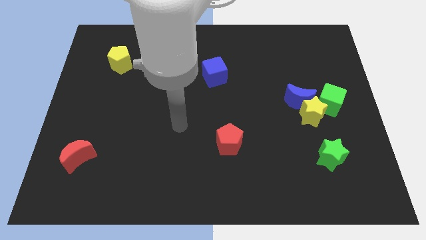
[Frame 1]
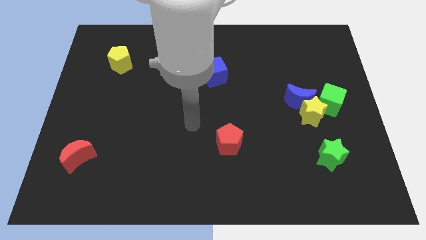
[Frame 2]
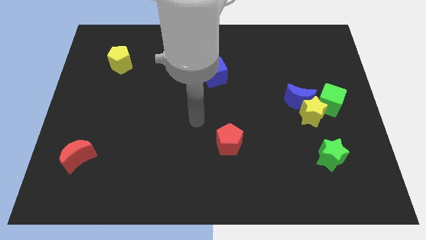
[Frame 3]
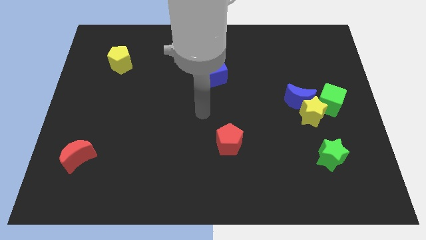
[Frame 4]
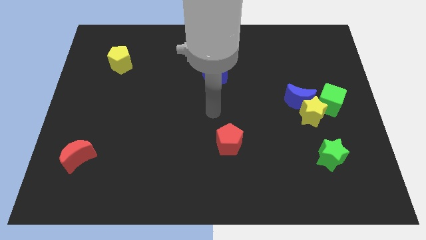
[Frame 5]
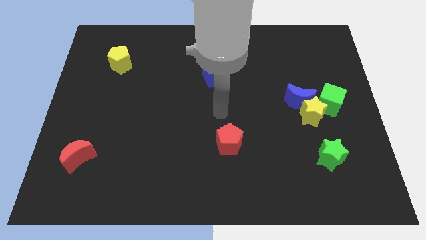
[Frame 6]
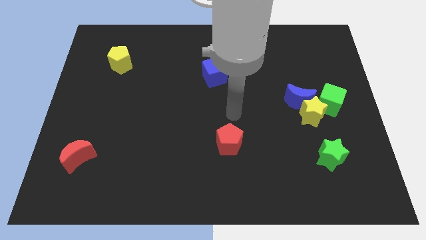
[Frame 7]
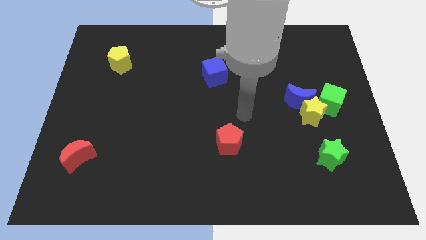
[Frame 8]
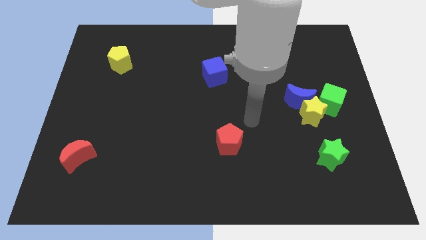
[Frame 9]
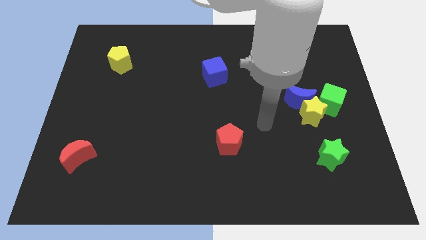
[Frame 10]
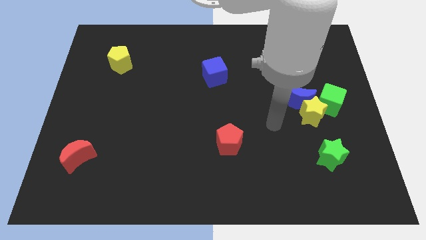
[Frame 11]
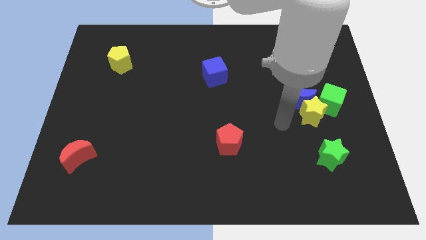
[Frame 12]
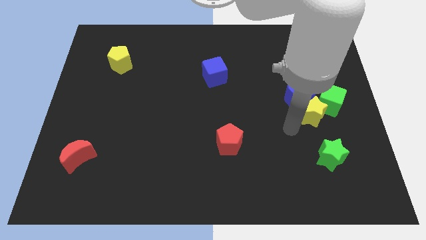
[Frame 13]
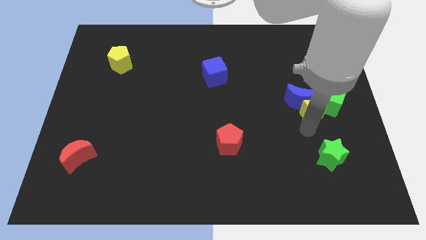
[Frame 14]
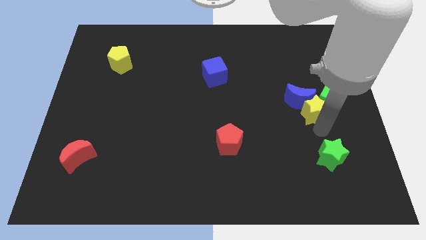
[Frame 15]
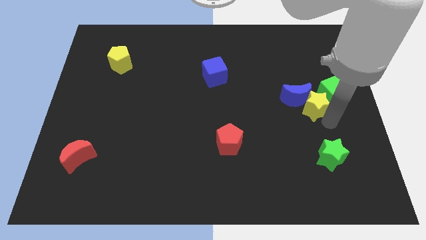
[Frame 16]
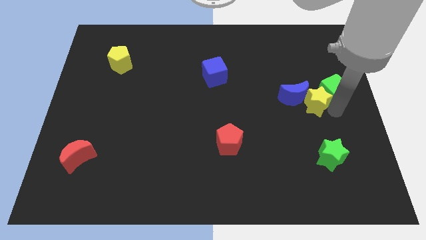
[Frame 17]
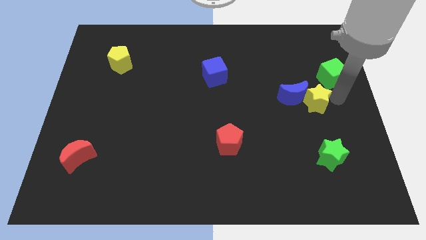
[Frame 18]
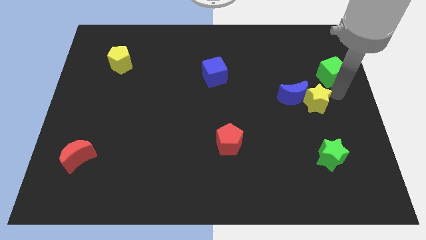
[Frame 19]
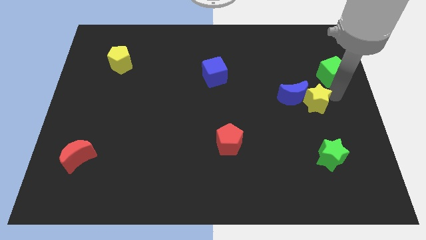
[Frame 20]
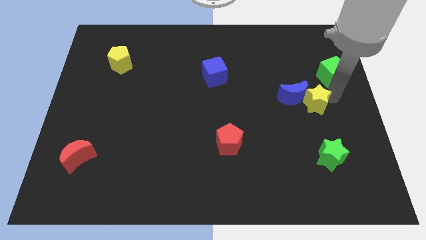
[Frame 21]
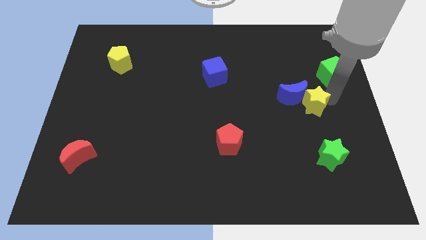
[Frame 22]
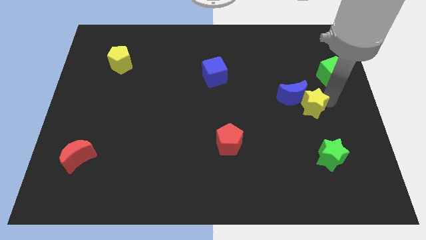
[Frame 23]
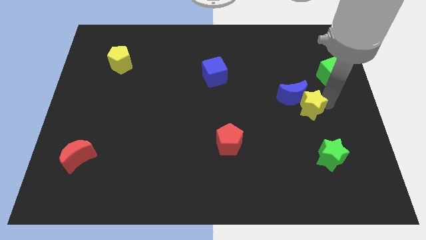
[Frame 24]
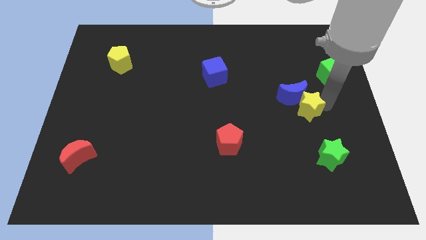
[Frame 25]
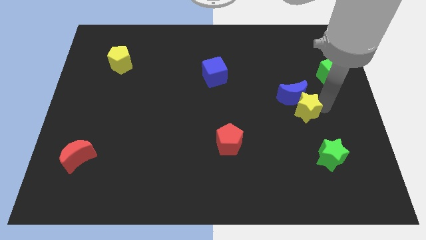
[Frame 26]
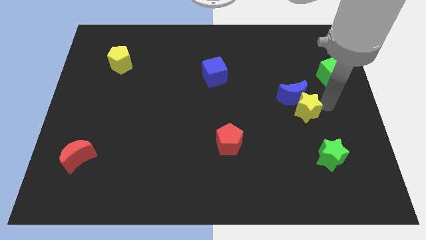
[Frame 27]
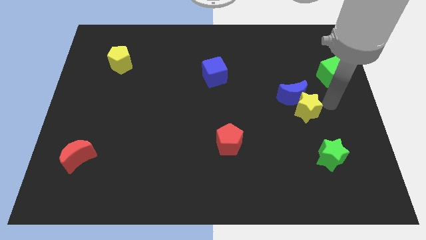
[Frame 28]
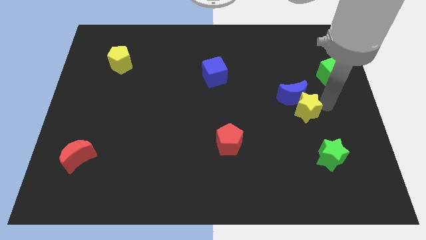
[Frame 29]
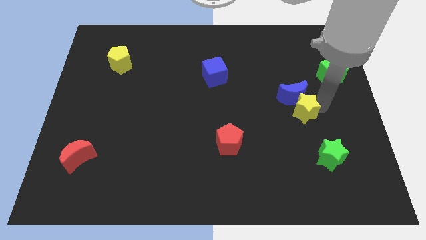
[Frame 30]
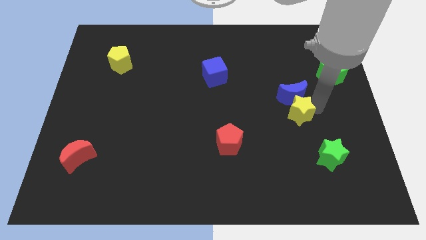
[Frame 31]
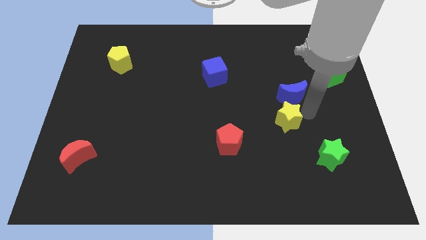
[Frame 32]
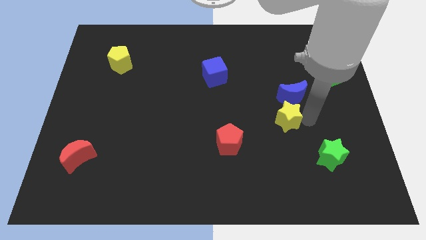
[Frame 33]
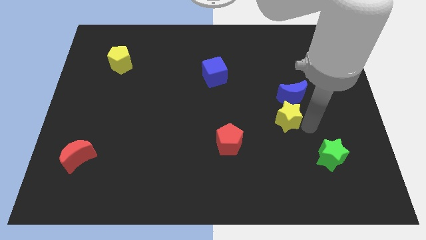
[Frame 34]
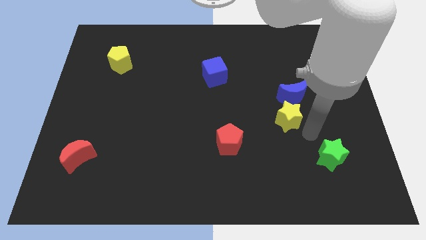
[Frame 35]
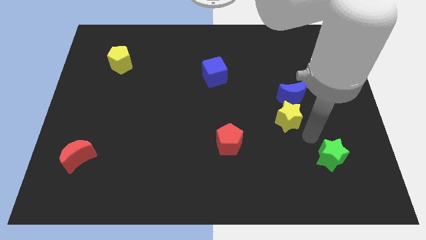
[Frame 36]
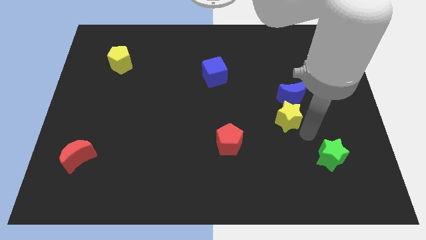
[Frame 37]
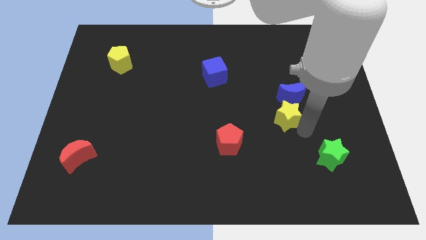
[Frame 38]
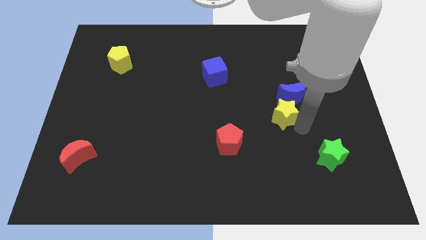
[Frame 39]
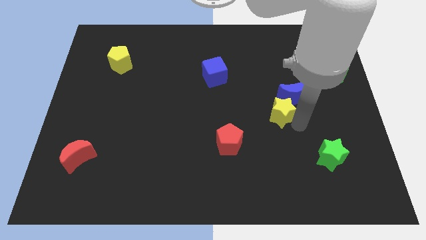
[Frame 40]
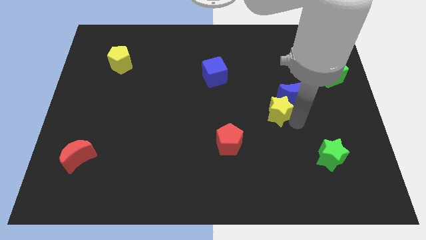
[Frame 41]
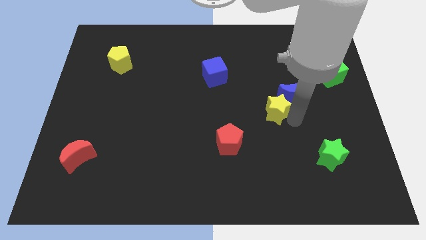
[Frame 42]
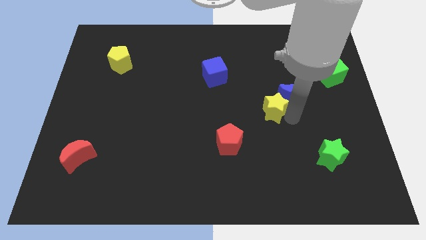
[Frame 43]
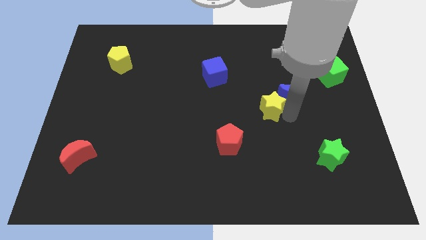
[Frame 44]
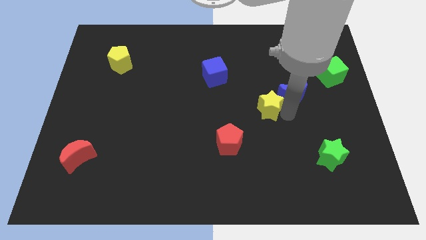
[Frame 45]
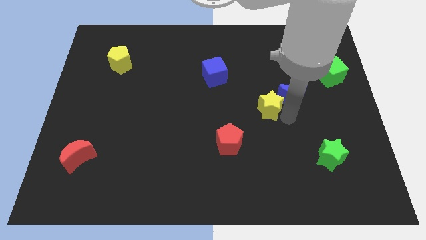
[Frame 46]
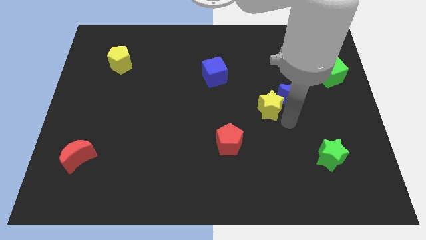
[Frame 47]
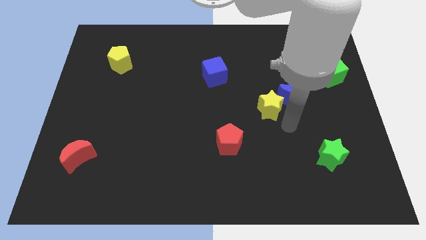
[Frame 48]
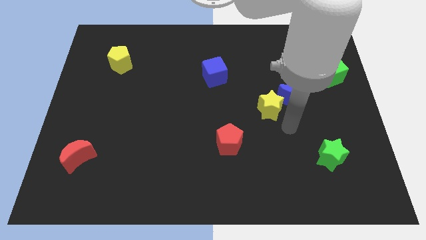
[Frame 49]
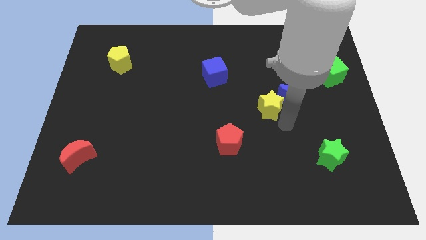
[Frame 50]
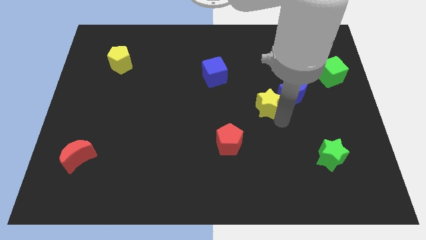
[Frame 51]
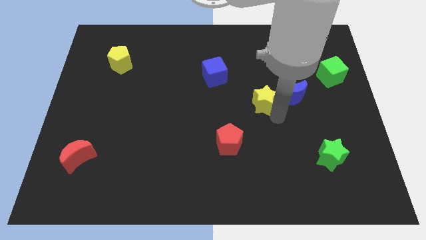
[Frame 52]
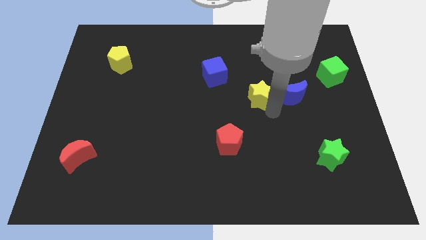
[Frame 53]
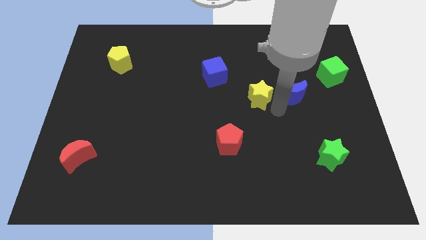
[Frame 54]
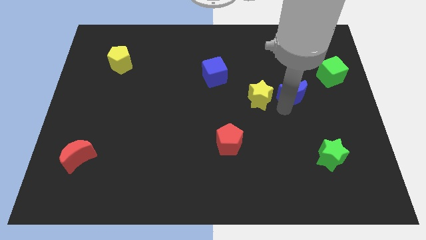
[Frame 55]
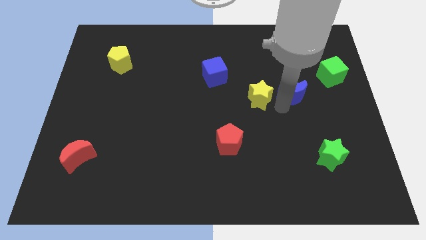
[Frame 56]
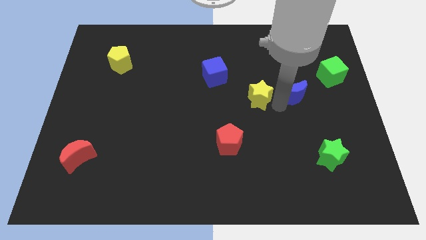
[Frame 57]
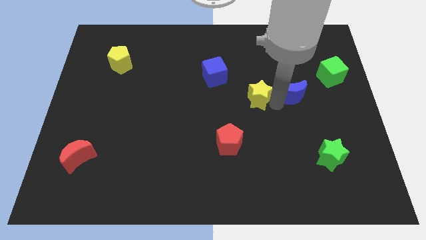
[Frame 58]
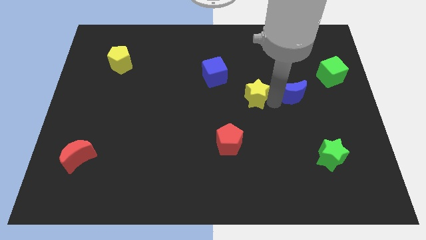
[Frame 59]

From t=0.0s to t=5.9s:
push the yellow star diagonally down and to the right of the blue cube
